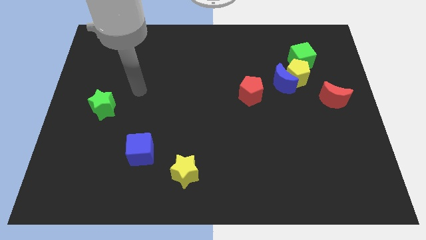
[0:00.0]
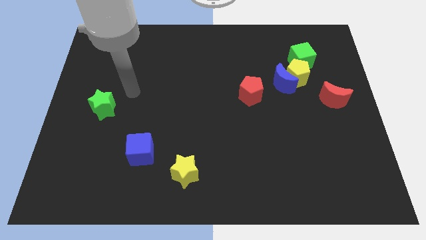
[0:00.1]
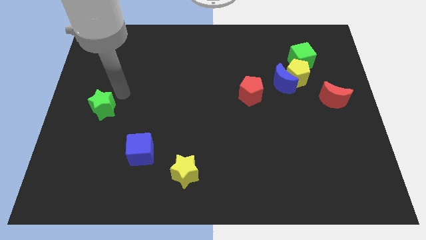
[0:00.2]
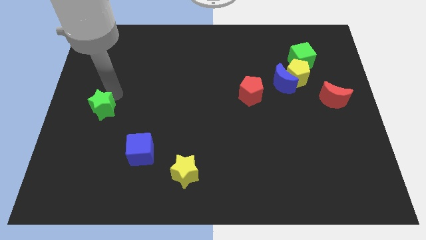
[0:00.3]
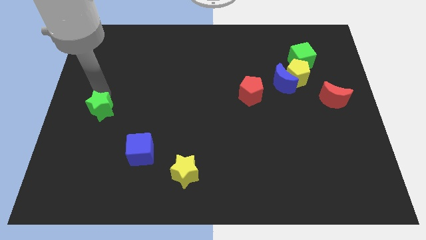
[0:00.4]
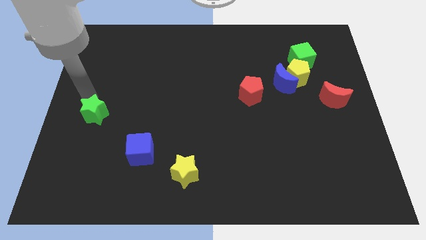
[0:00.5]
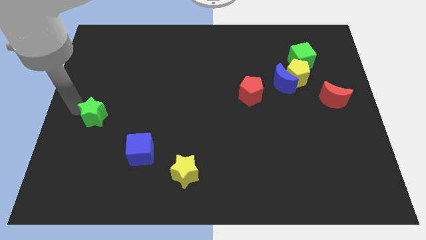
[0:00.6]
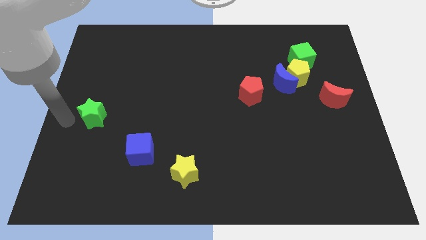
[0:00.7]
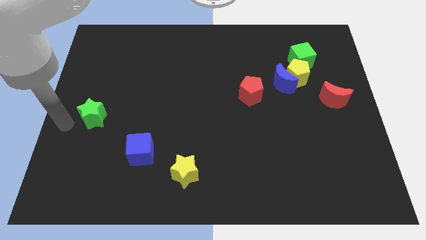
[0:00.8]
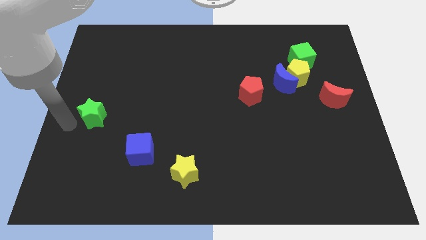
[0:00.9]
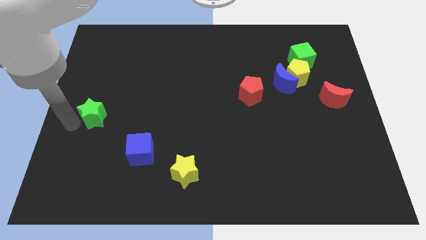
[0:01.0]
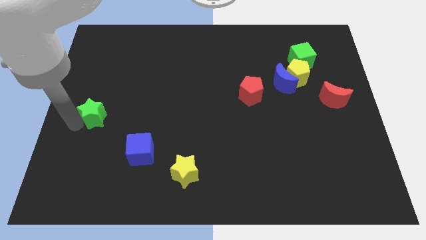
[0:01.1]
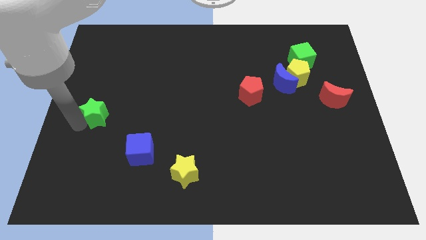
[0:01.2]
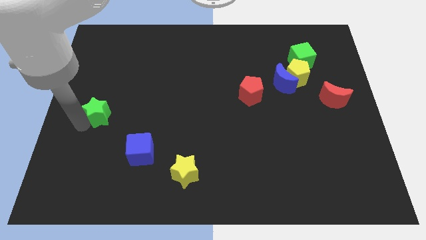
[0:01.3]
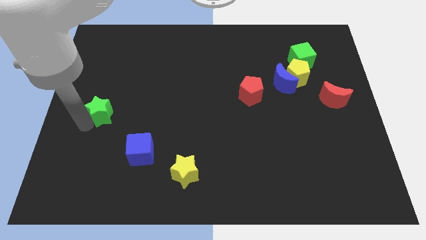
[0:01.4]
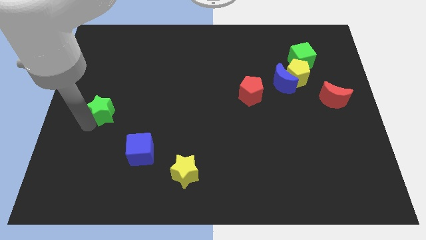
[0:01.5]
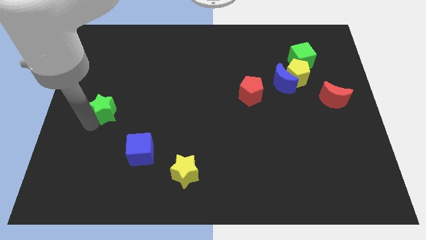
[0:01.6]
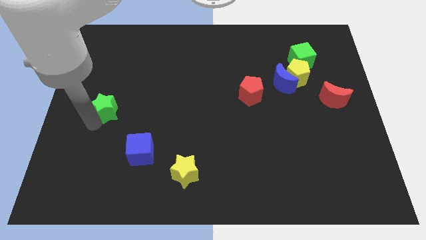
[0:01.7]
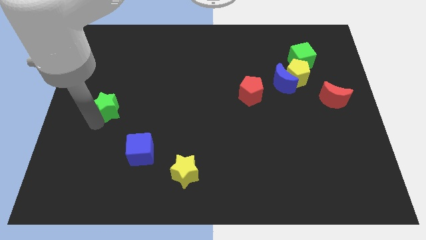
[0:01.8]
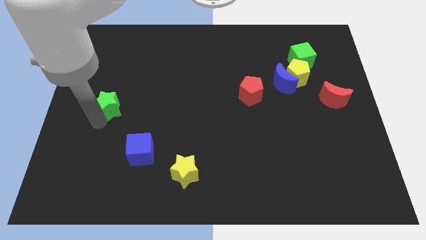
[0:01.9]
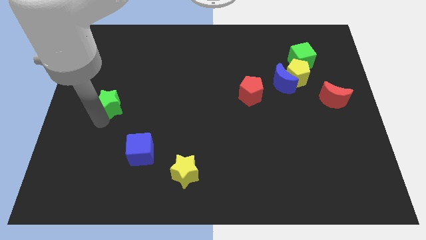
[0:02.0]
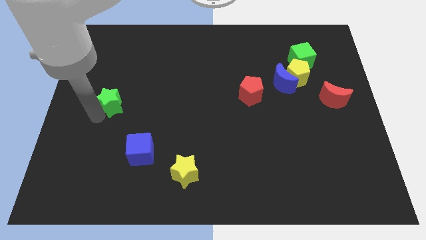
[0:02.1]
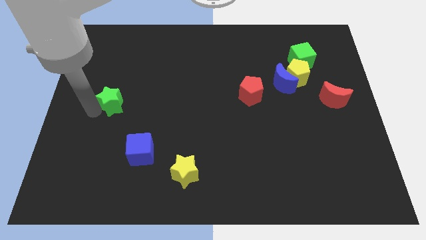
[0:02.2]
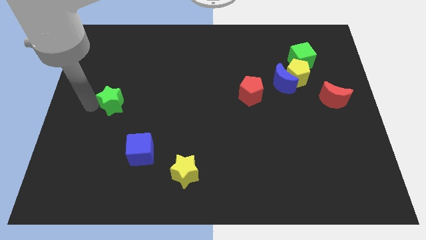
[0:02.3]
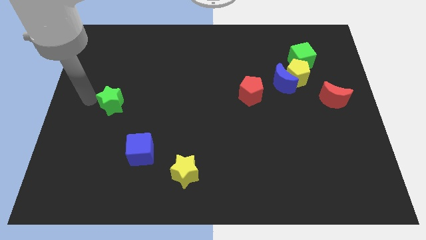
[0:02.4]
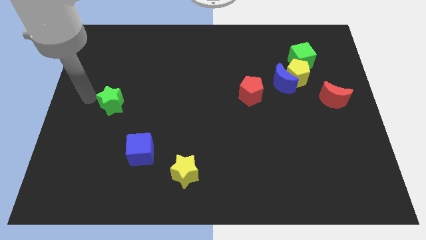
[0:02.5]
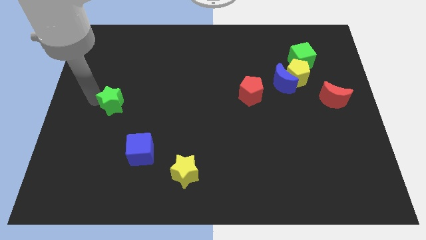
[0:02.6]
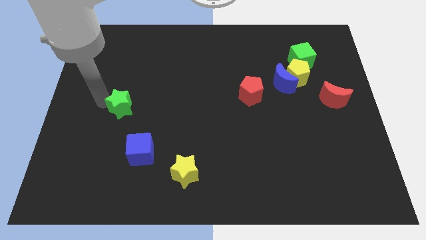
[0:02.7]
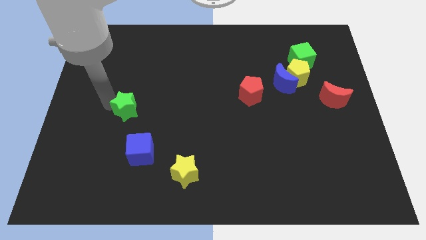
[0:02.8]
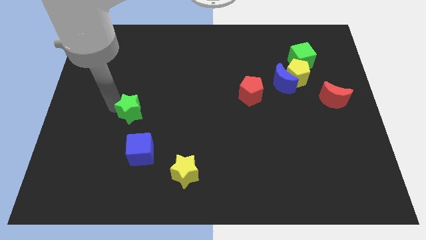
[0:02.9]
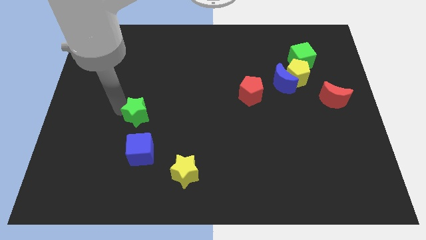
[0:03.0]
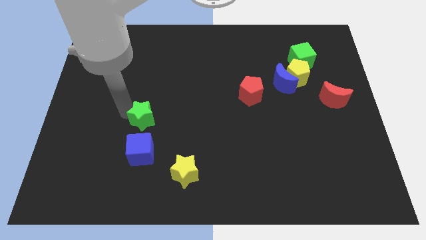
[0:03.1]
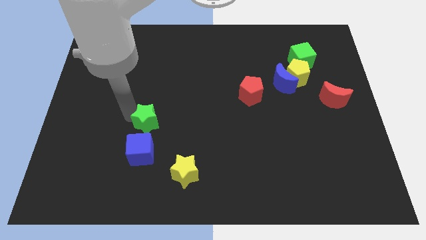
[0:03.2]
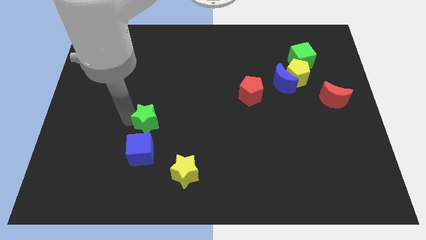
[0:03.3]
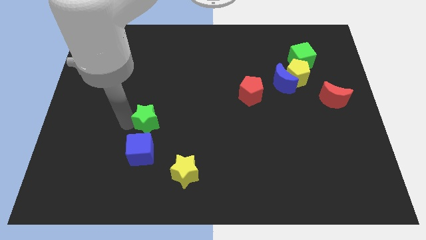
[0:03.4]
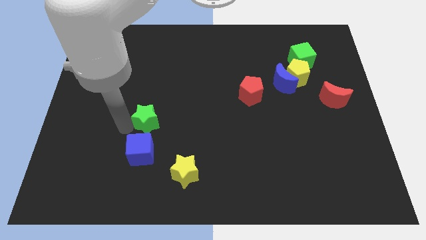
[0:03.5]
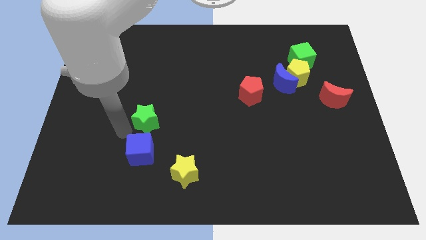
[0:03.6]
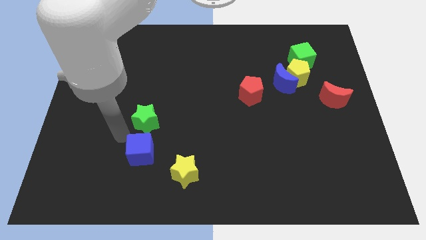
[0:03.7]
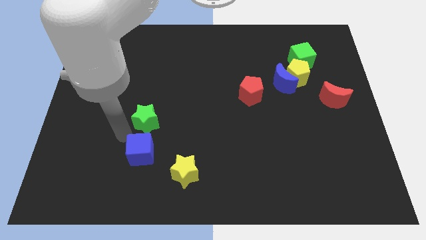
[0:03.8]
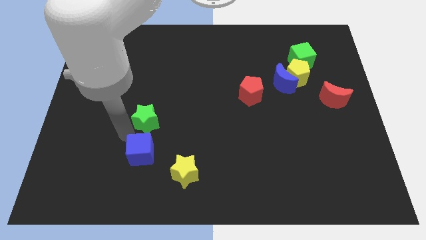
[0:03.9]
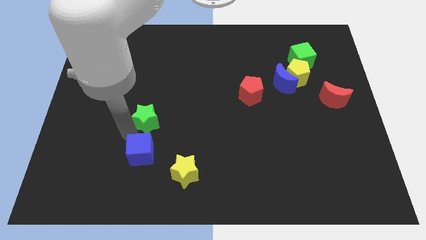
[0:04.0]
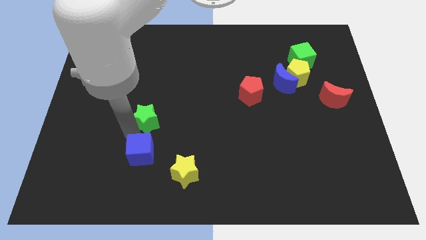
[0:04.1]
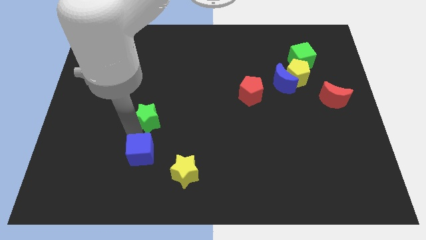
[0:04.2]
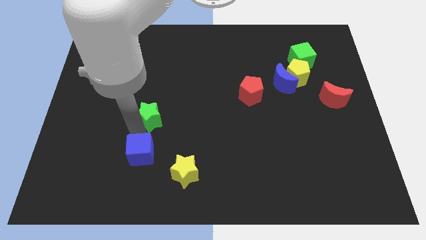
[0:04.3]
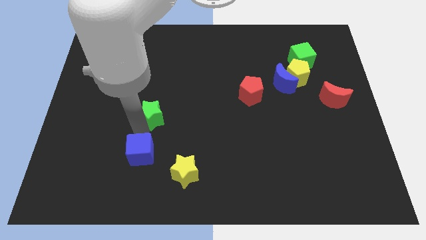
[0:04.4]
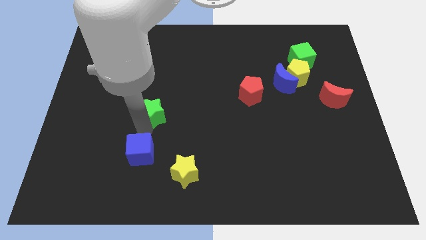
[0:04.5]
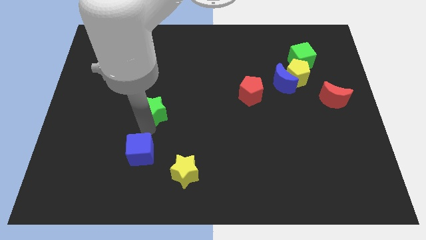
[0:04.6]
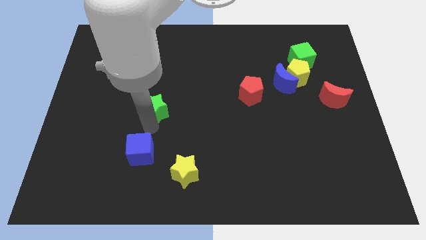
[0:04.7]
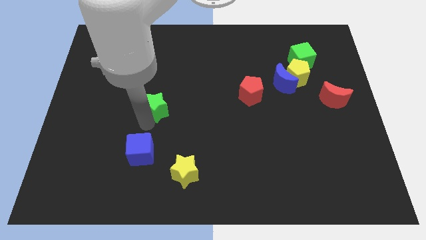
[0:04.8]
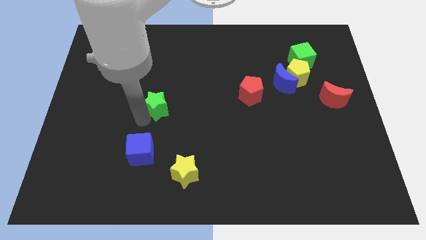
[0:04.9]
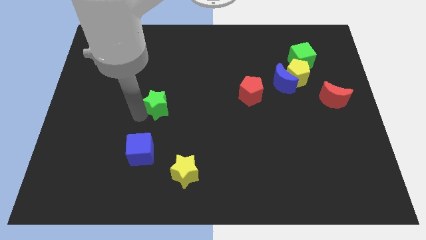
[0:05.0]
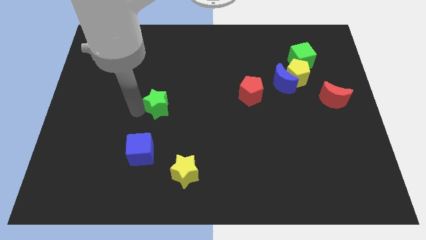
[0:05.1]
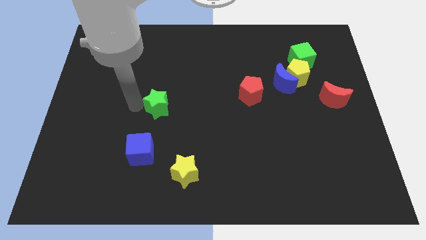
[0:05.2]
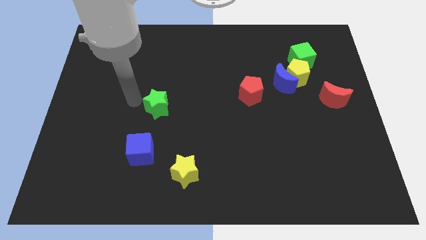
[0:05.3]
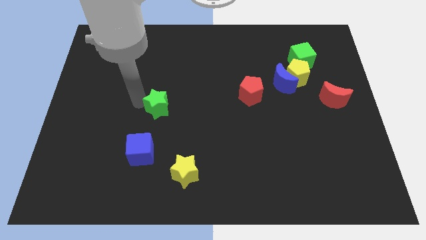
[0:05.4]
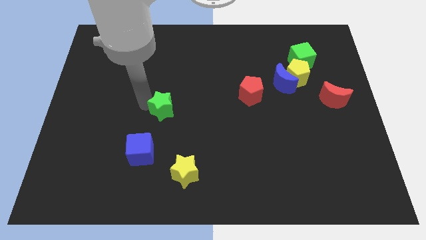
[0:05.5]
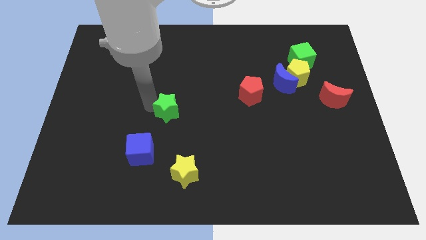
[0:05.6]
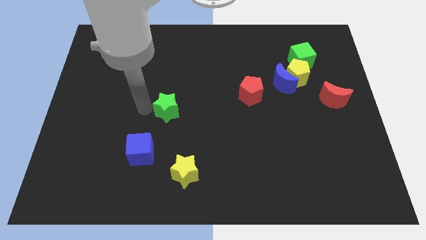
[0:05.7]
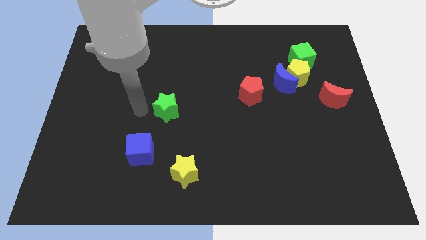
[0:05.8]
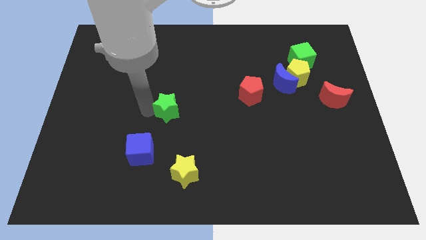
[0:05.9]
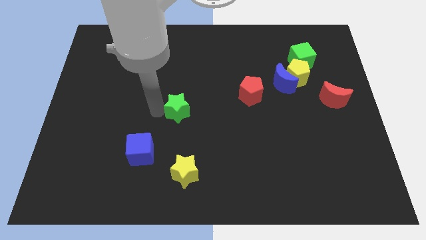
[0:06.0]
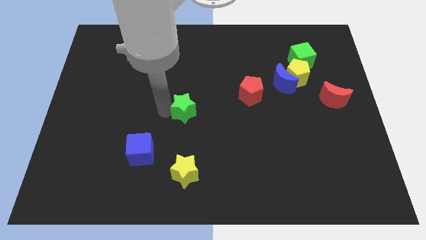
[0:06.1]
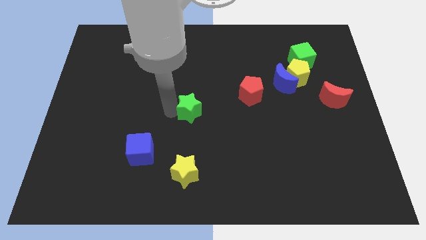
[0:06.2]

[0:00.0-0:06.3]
push the green star to the right

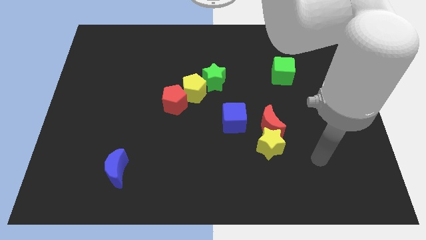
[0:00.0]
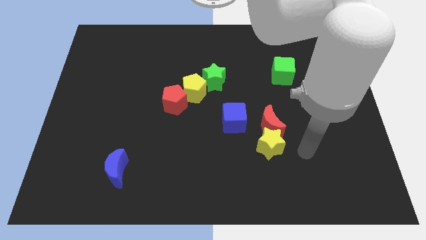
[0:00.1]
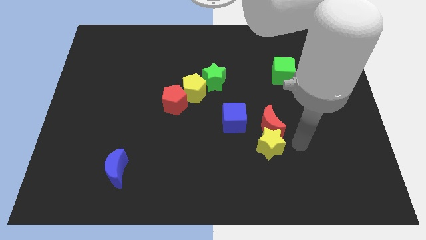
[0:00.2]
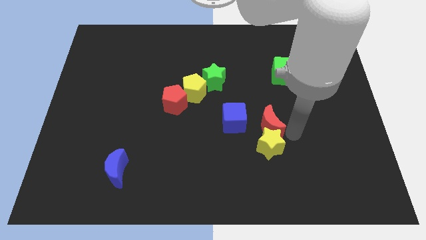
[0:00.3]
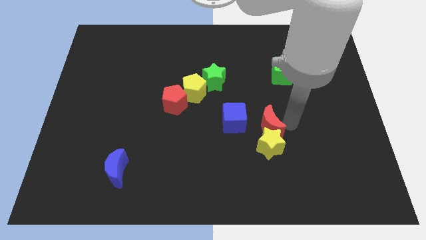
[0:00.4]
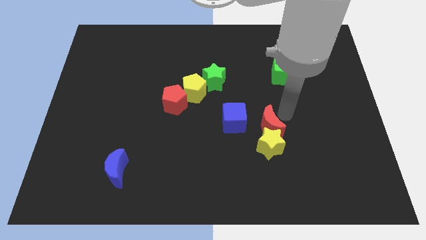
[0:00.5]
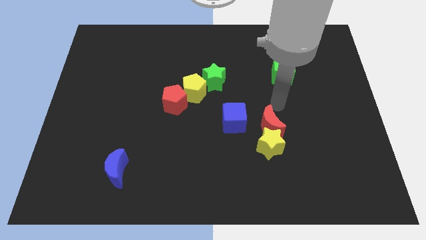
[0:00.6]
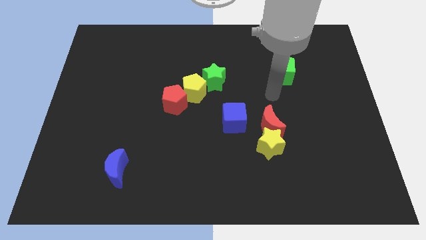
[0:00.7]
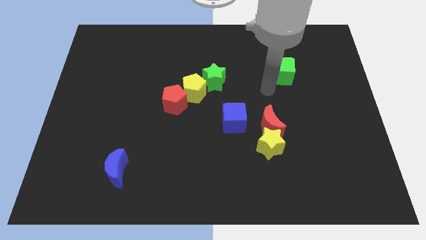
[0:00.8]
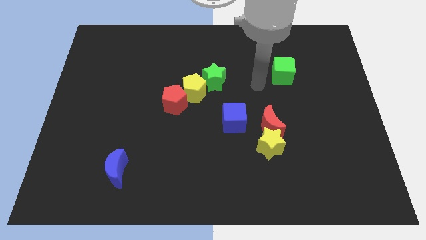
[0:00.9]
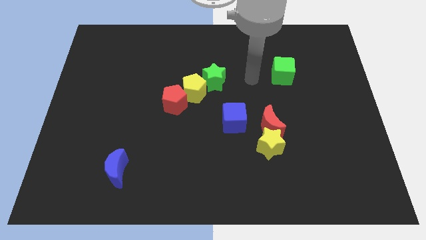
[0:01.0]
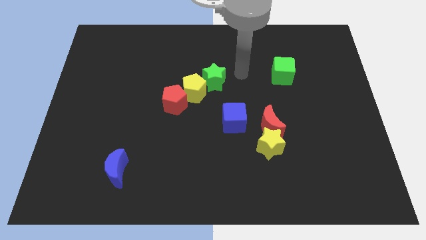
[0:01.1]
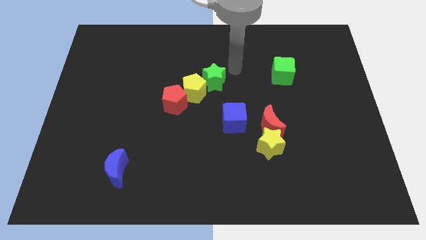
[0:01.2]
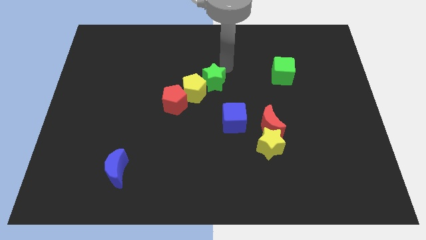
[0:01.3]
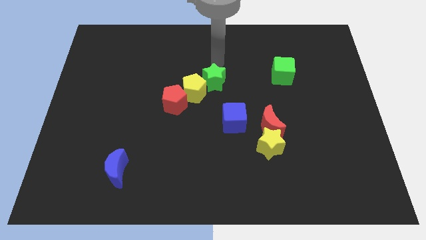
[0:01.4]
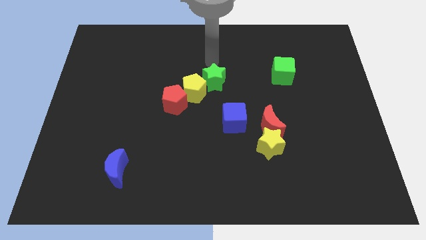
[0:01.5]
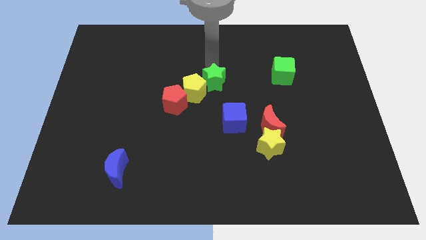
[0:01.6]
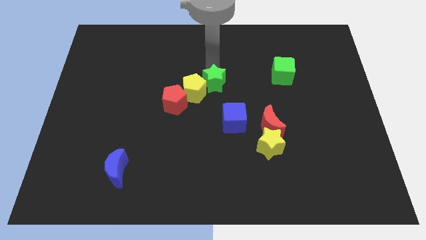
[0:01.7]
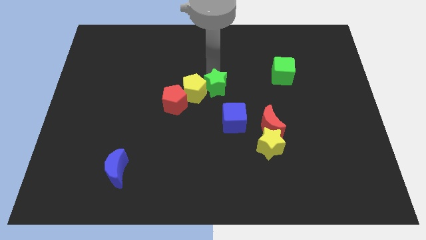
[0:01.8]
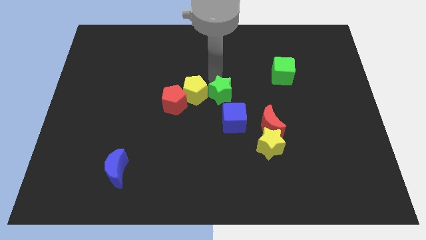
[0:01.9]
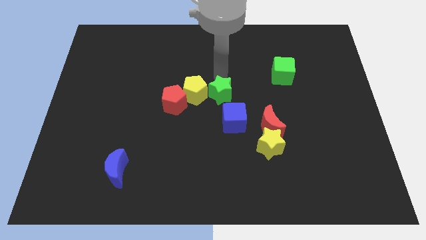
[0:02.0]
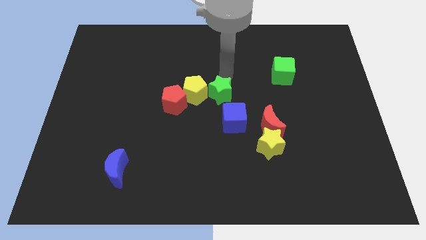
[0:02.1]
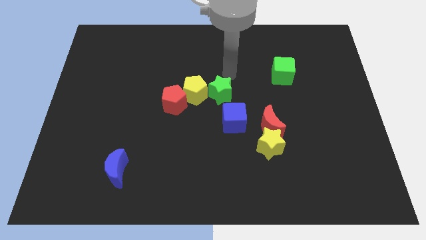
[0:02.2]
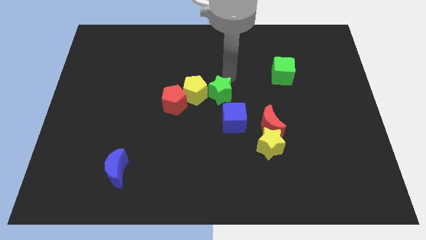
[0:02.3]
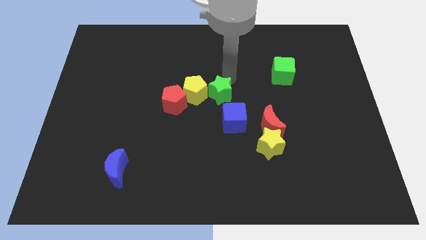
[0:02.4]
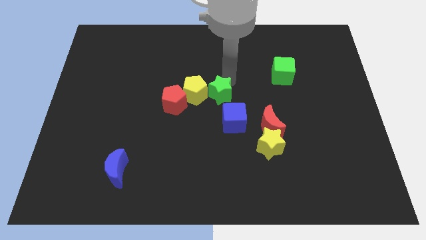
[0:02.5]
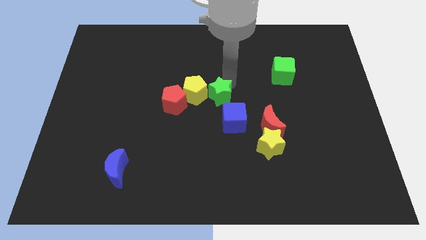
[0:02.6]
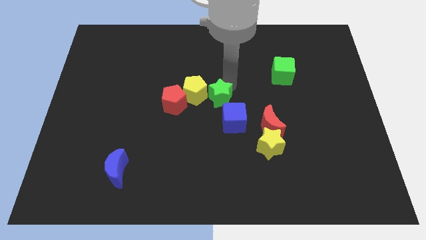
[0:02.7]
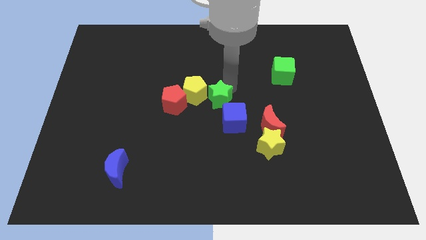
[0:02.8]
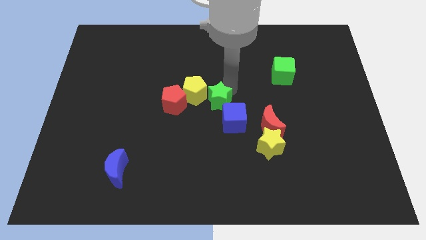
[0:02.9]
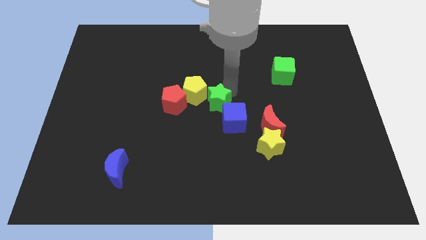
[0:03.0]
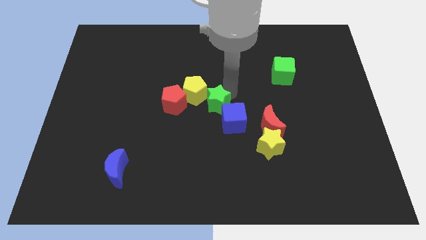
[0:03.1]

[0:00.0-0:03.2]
slightly push the green star downwards
